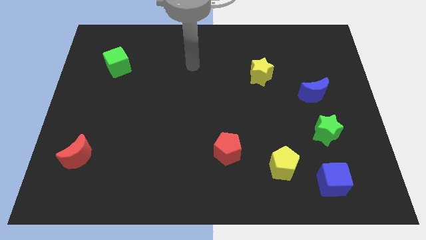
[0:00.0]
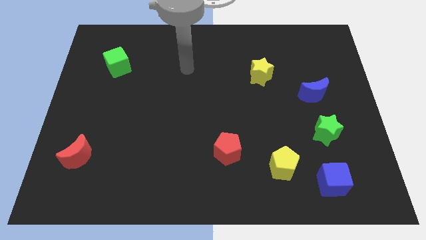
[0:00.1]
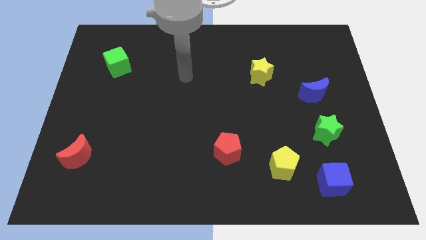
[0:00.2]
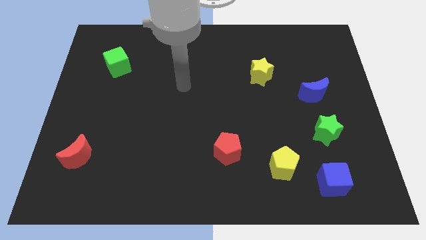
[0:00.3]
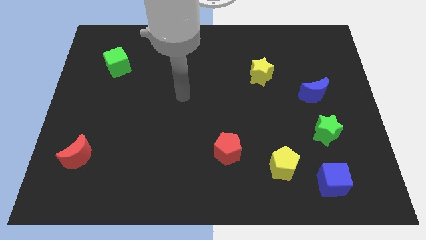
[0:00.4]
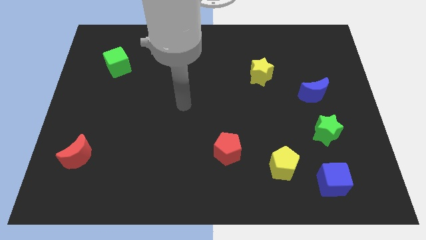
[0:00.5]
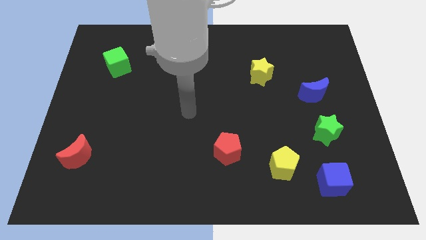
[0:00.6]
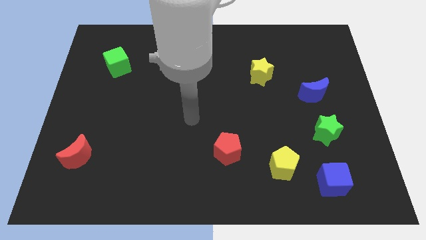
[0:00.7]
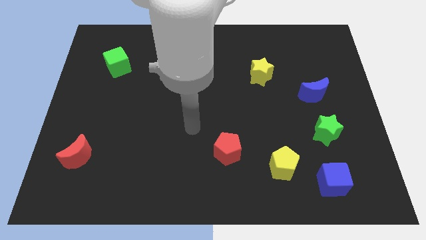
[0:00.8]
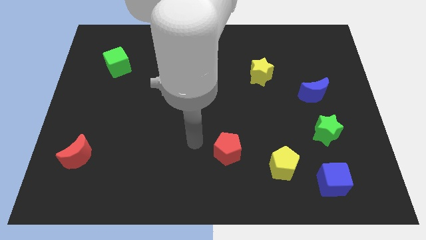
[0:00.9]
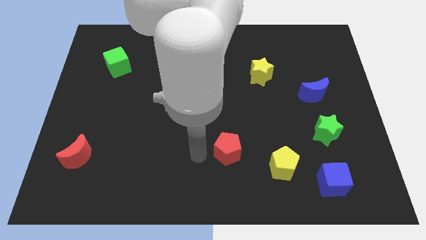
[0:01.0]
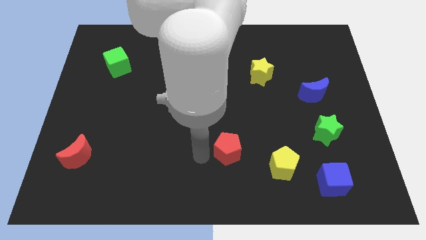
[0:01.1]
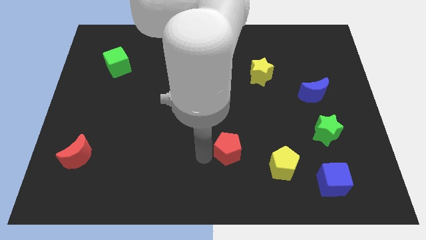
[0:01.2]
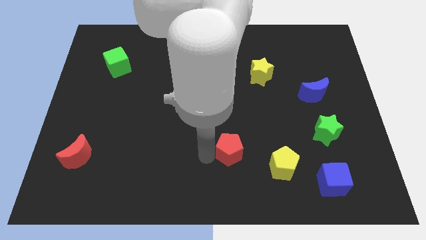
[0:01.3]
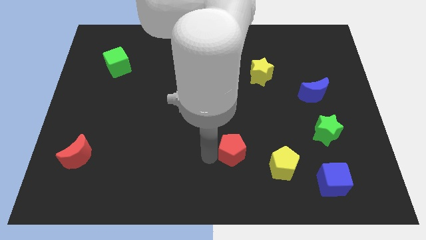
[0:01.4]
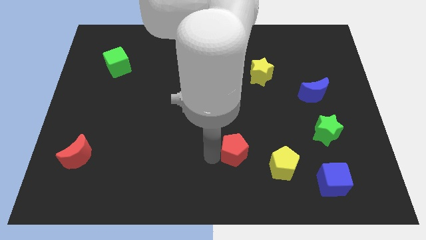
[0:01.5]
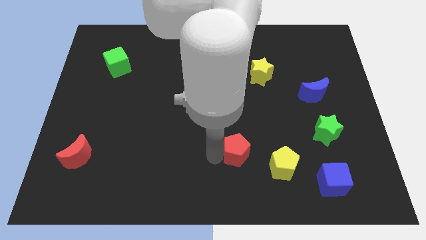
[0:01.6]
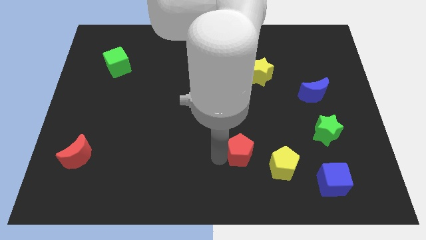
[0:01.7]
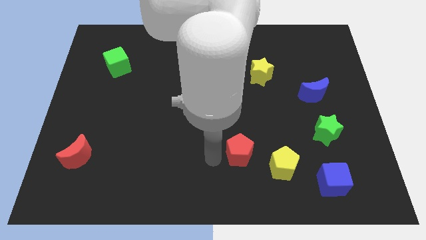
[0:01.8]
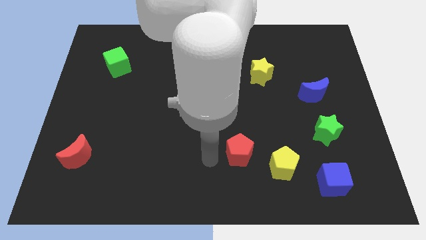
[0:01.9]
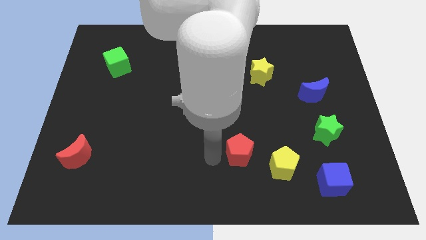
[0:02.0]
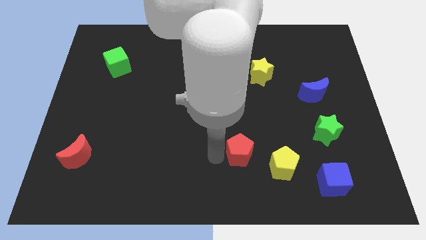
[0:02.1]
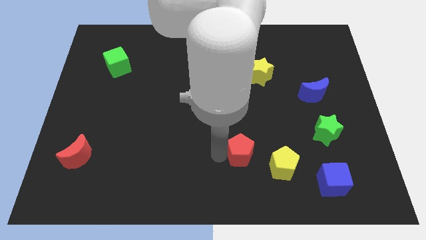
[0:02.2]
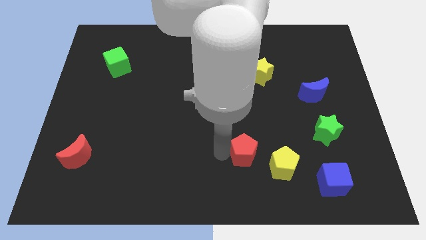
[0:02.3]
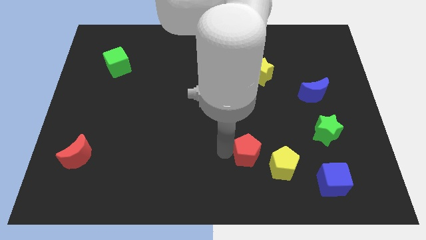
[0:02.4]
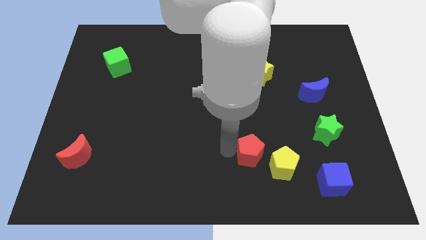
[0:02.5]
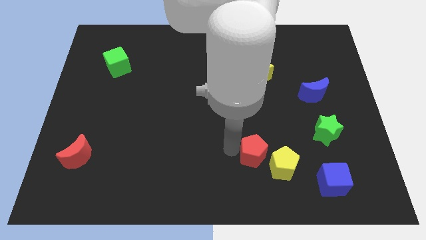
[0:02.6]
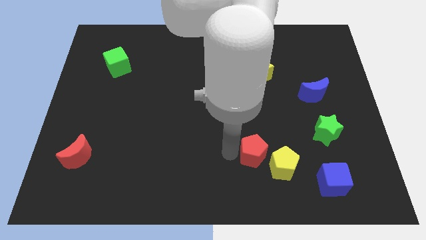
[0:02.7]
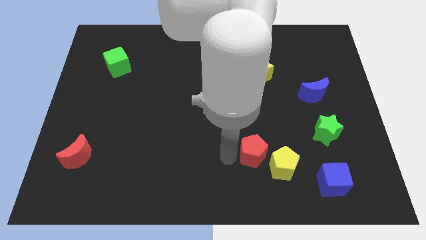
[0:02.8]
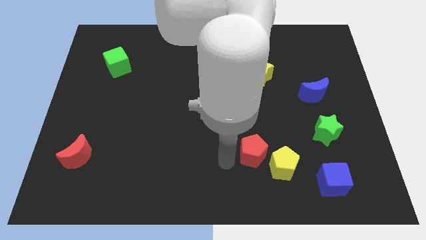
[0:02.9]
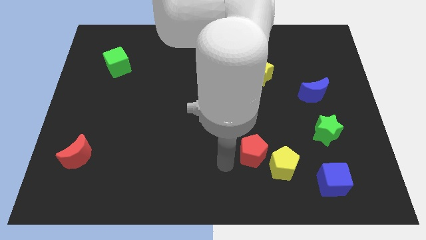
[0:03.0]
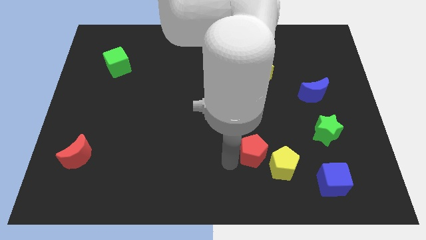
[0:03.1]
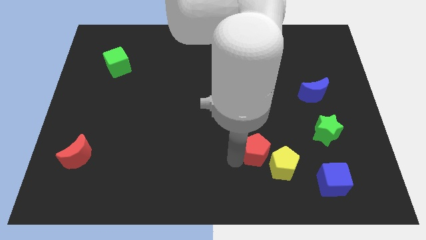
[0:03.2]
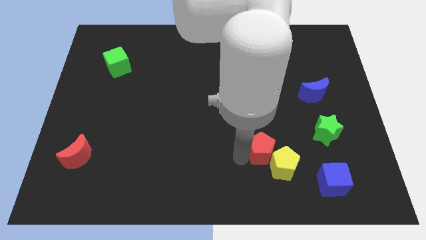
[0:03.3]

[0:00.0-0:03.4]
slightly slide the red pentagon right

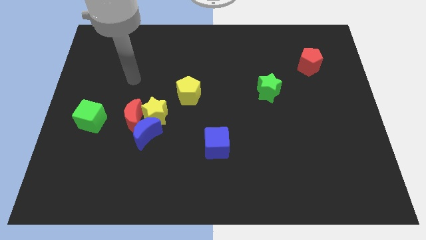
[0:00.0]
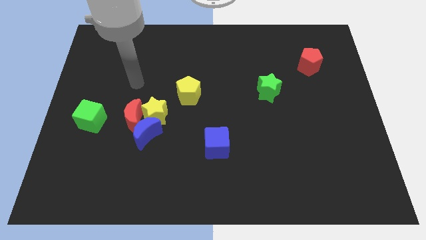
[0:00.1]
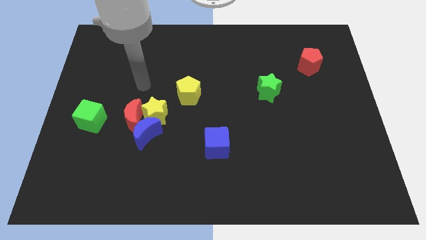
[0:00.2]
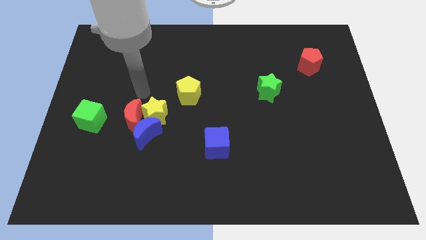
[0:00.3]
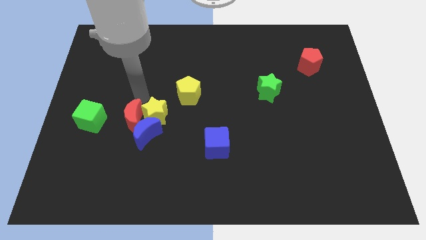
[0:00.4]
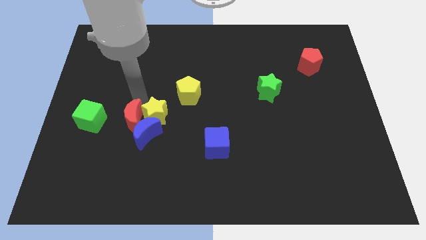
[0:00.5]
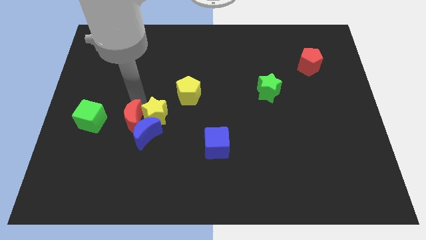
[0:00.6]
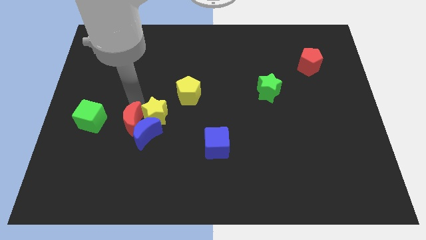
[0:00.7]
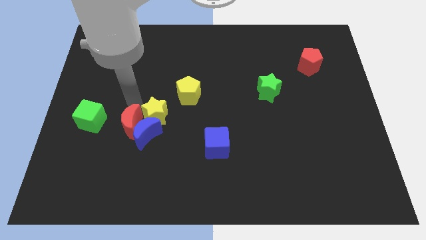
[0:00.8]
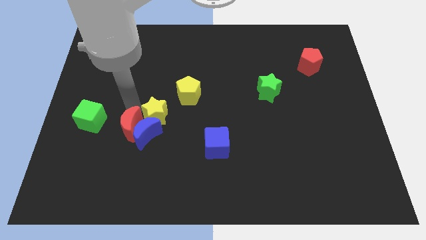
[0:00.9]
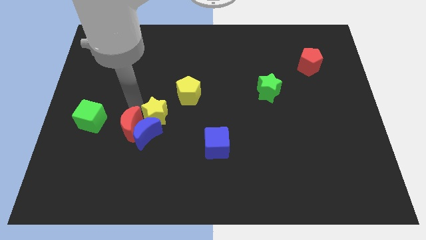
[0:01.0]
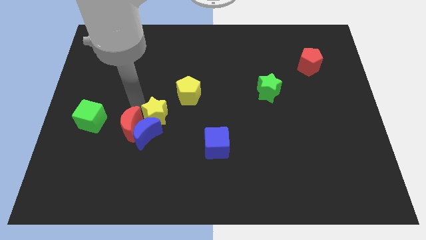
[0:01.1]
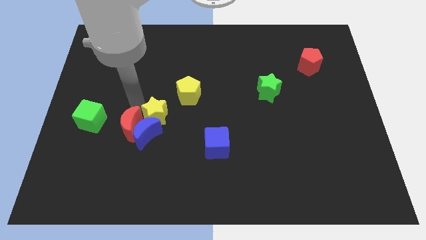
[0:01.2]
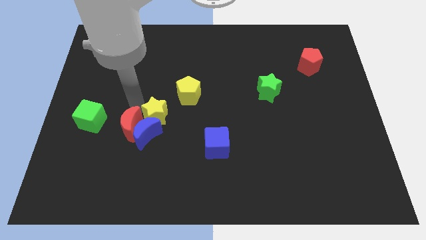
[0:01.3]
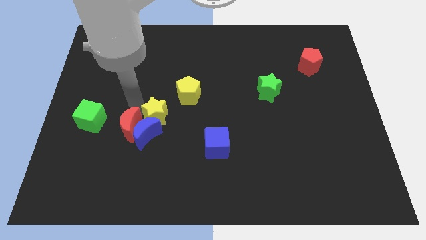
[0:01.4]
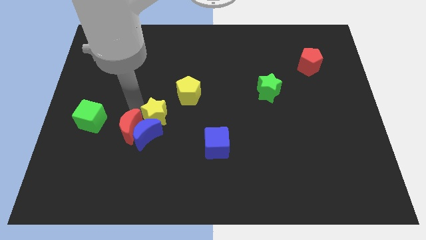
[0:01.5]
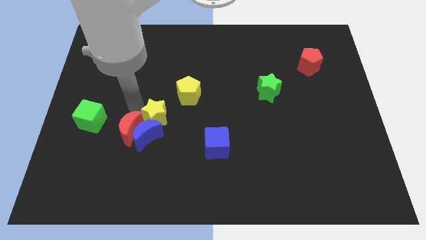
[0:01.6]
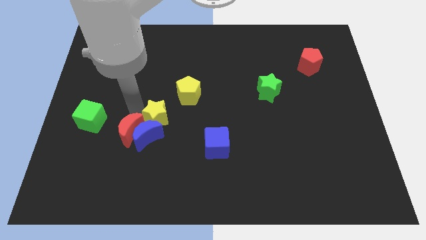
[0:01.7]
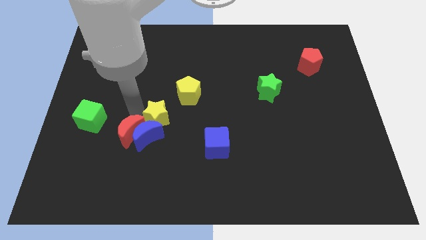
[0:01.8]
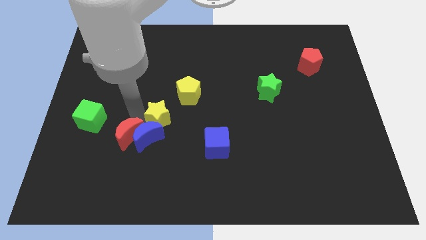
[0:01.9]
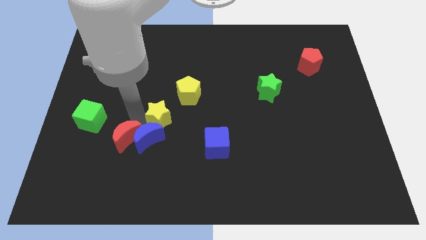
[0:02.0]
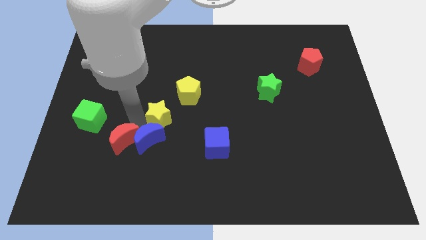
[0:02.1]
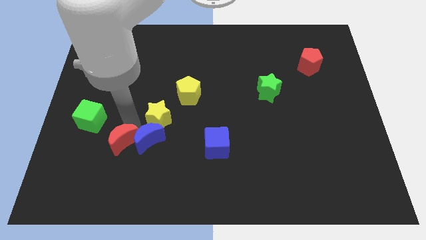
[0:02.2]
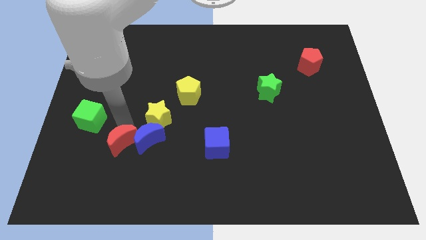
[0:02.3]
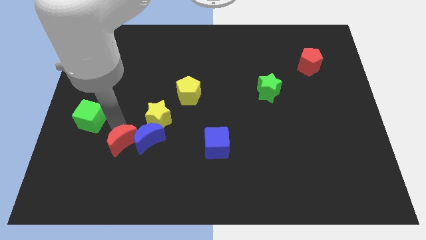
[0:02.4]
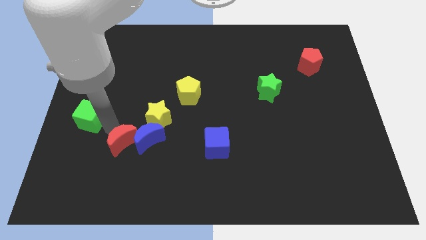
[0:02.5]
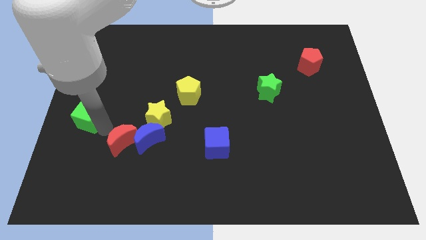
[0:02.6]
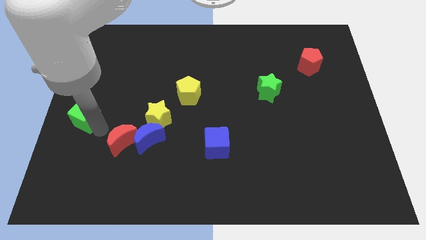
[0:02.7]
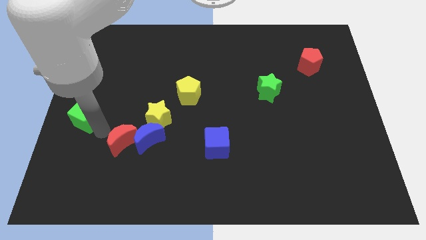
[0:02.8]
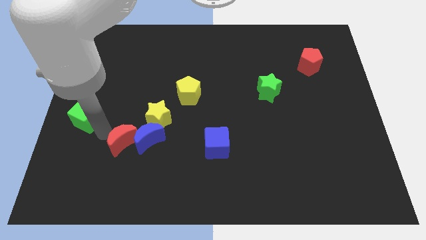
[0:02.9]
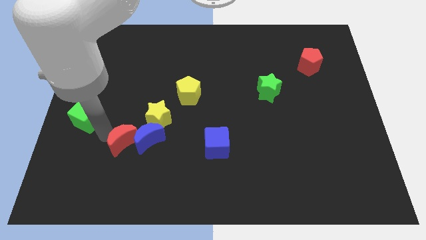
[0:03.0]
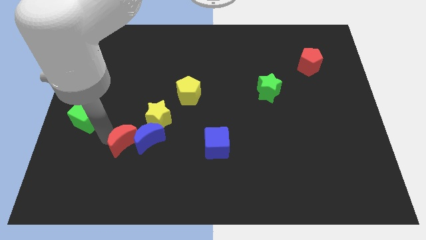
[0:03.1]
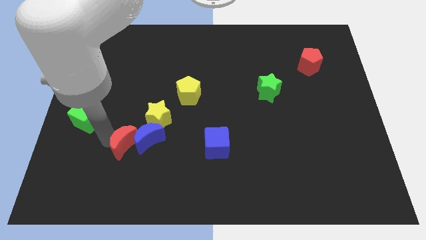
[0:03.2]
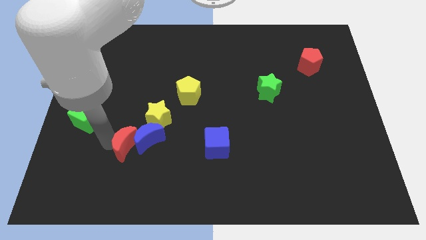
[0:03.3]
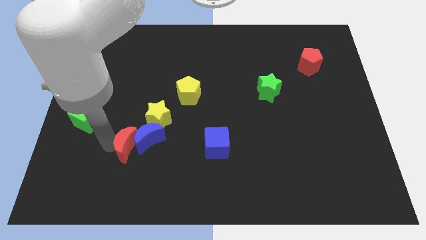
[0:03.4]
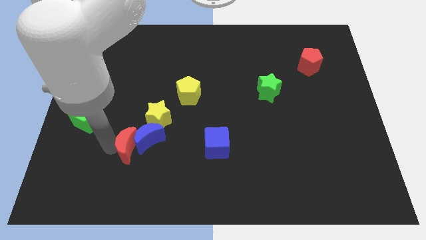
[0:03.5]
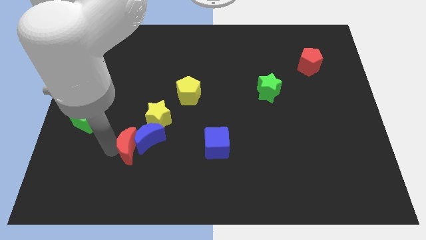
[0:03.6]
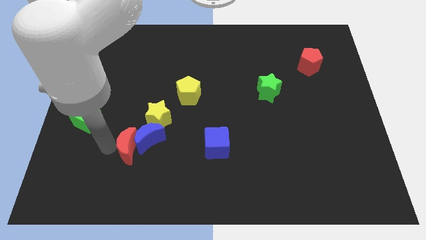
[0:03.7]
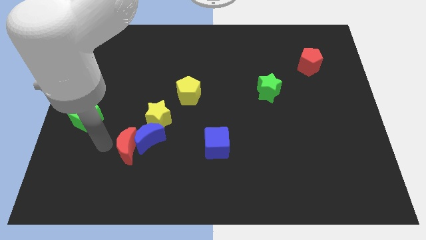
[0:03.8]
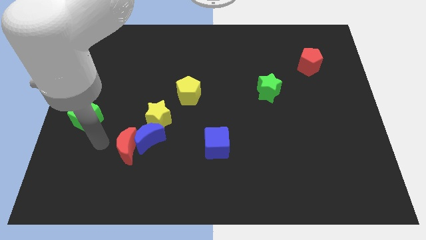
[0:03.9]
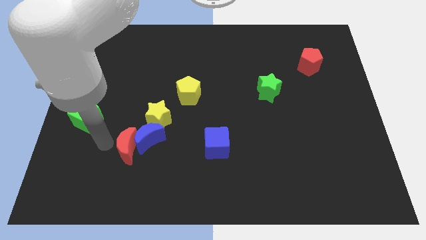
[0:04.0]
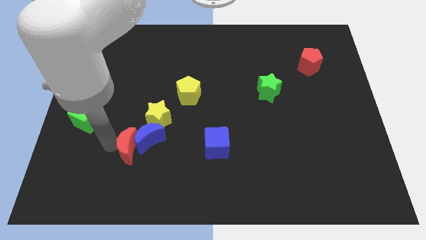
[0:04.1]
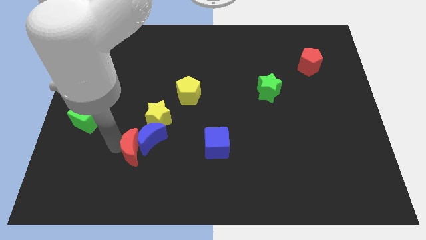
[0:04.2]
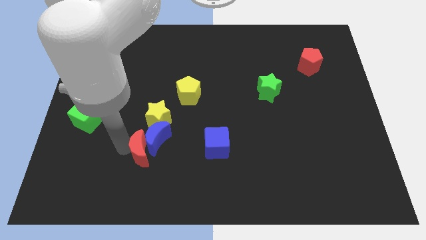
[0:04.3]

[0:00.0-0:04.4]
slightly move the red moon diagonally down and to the right
